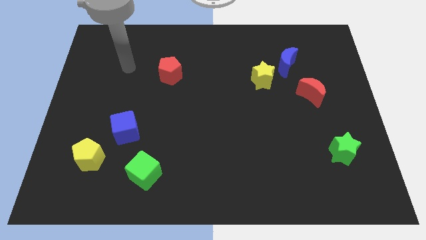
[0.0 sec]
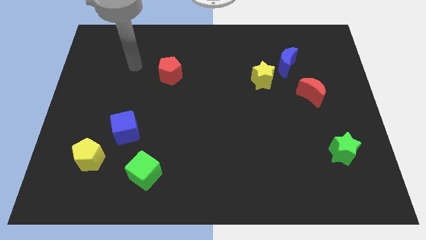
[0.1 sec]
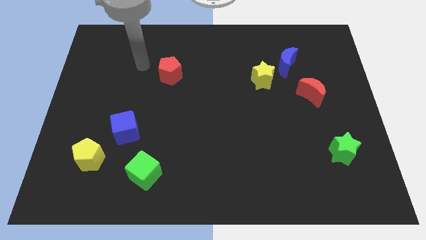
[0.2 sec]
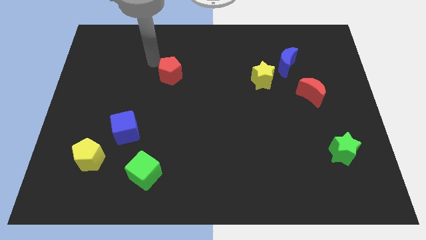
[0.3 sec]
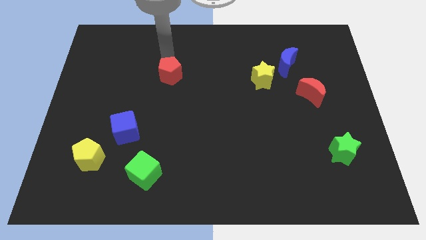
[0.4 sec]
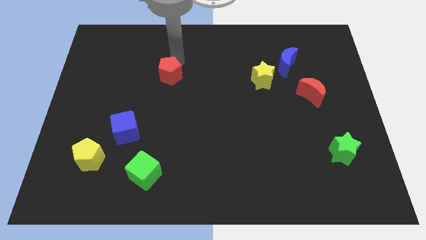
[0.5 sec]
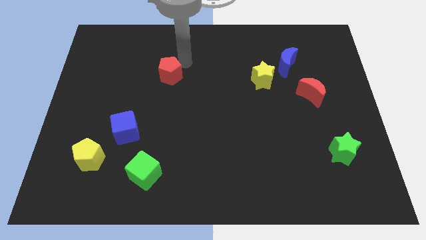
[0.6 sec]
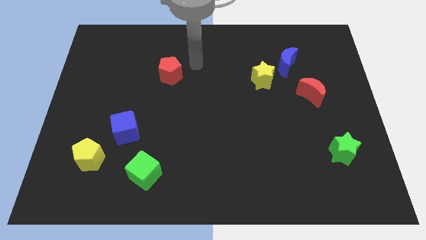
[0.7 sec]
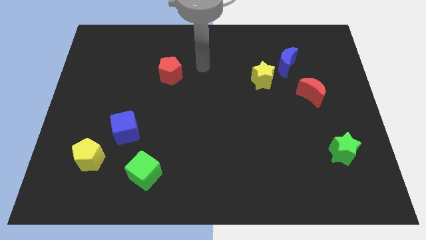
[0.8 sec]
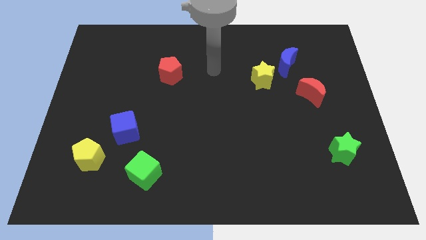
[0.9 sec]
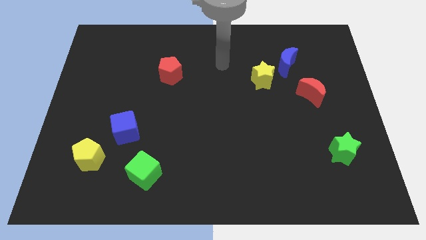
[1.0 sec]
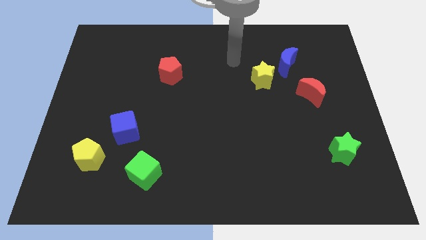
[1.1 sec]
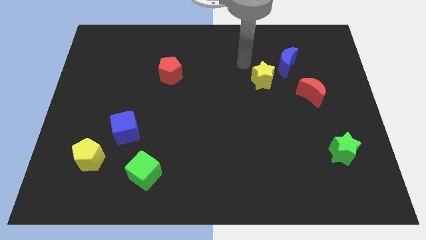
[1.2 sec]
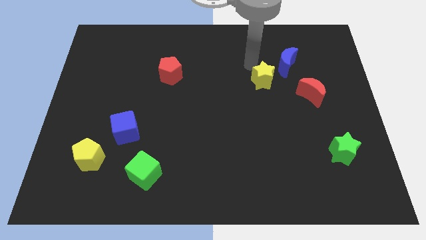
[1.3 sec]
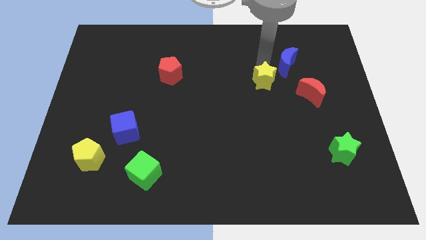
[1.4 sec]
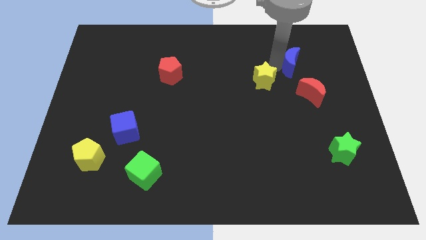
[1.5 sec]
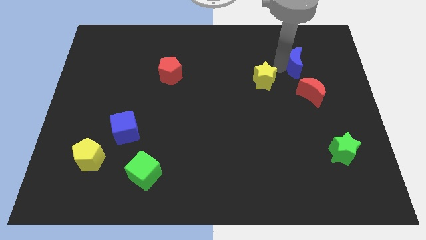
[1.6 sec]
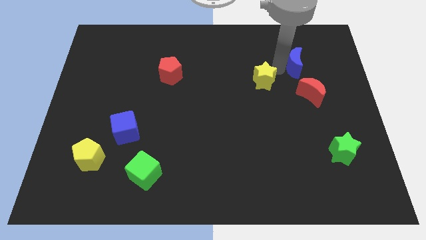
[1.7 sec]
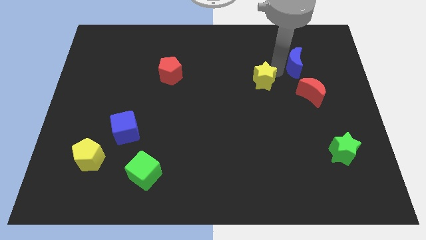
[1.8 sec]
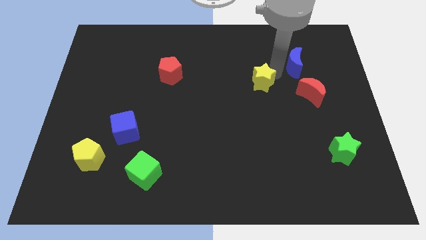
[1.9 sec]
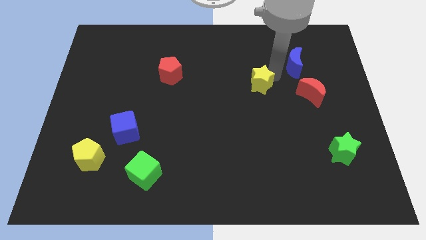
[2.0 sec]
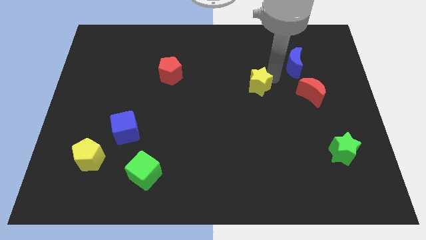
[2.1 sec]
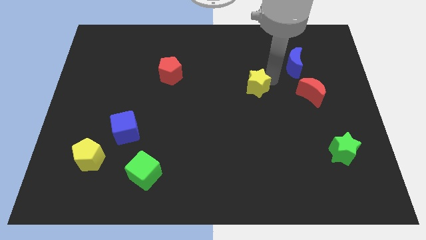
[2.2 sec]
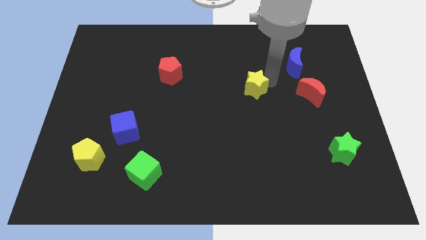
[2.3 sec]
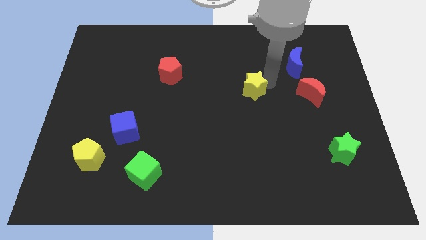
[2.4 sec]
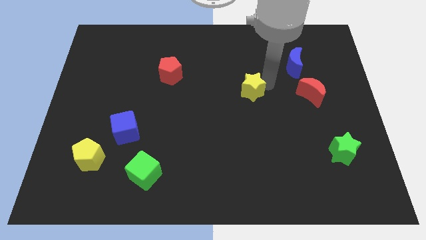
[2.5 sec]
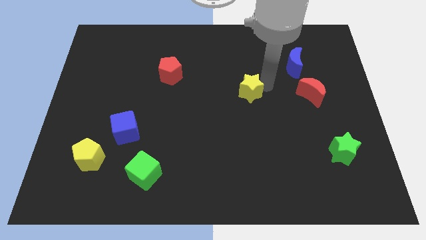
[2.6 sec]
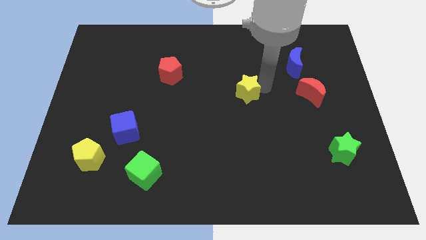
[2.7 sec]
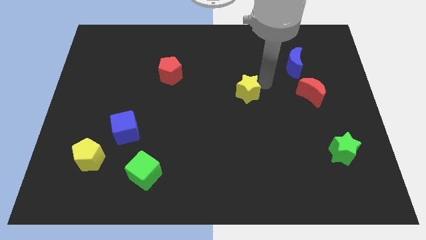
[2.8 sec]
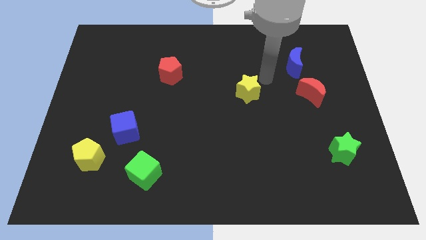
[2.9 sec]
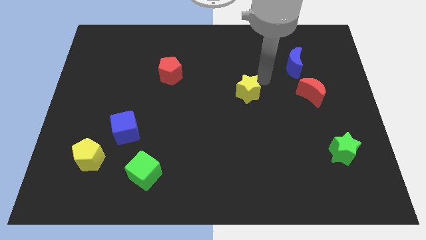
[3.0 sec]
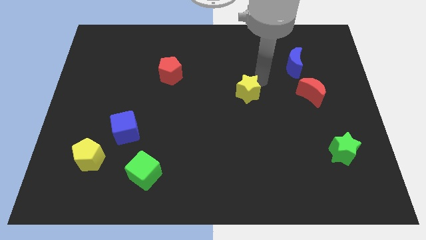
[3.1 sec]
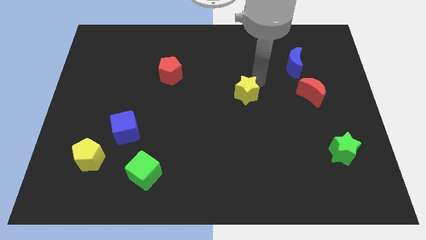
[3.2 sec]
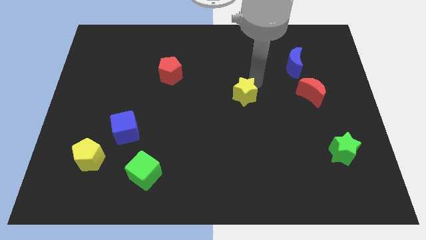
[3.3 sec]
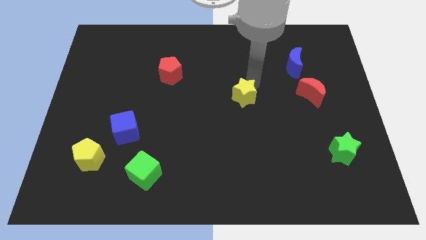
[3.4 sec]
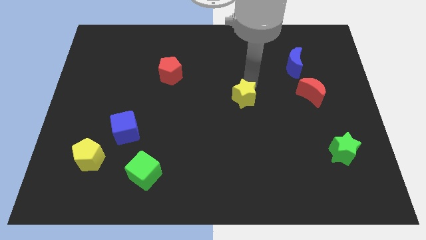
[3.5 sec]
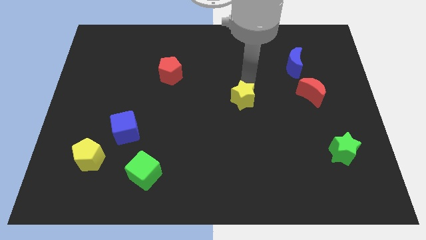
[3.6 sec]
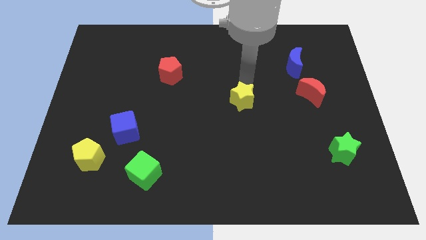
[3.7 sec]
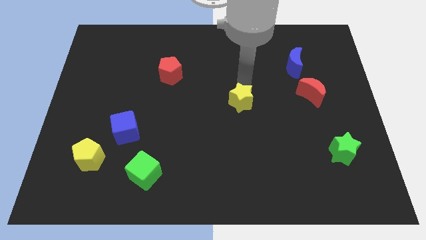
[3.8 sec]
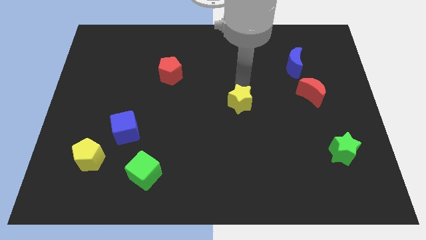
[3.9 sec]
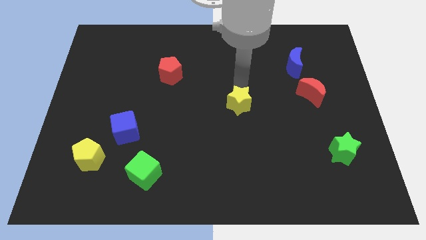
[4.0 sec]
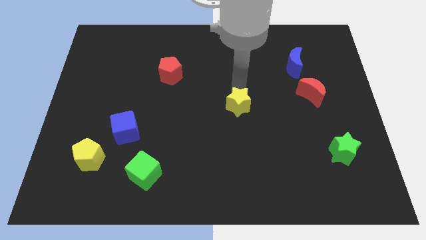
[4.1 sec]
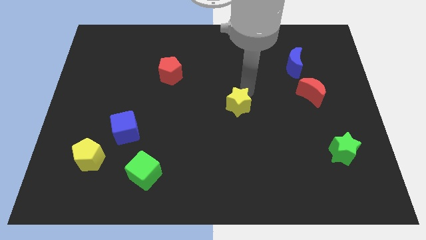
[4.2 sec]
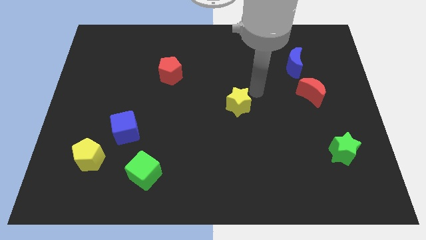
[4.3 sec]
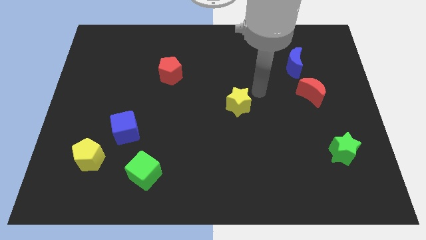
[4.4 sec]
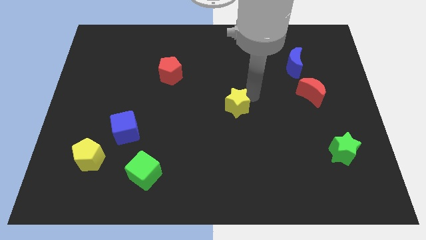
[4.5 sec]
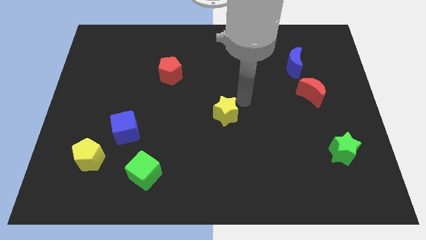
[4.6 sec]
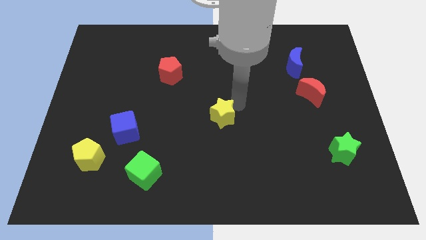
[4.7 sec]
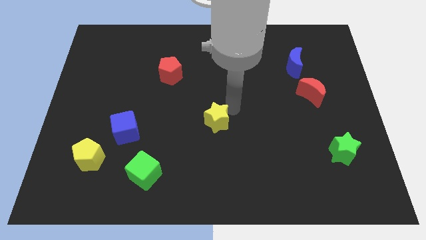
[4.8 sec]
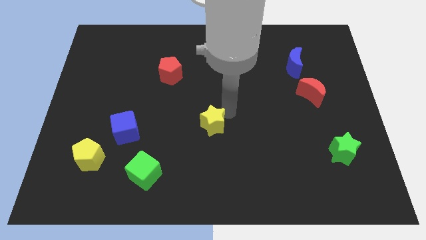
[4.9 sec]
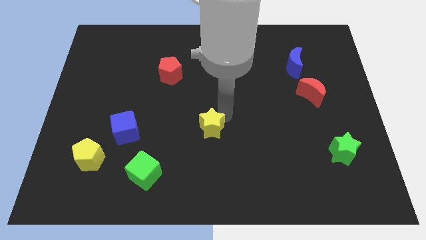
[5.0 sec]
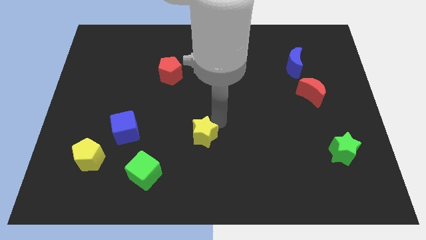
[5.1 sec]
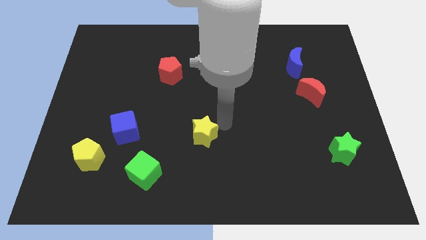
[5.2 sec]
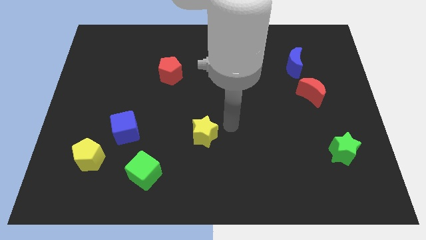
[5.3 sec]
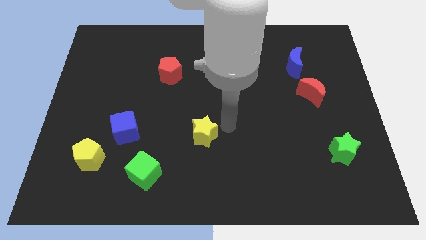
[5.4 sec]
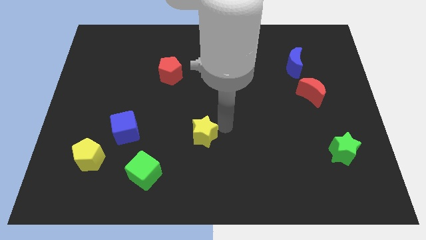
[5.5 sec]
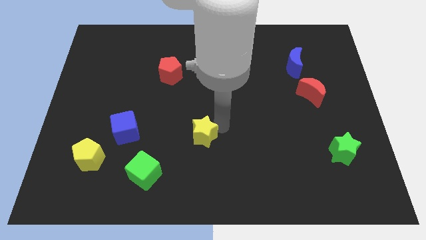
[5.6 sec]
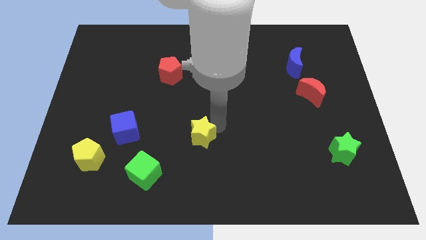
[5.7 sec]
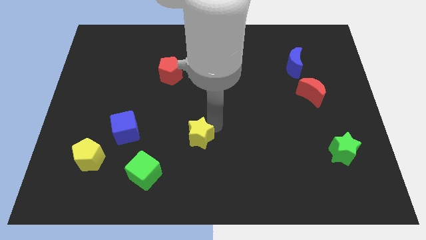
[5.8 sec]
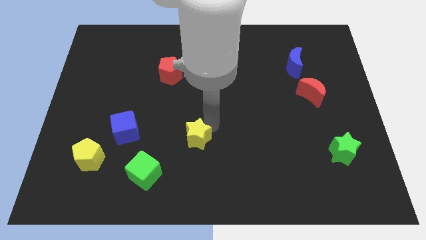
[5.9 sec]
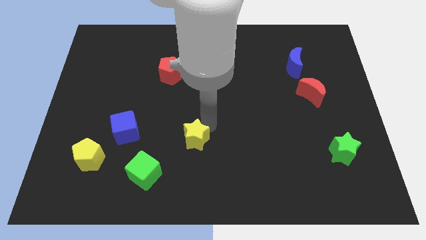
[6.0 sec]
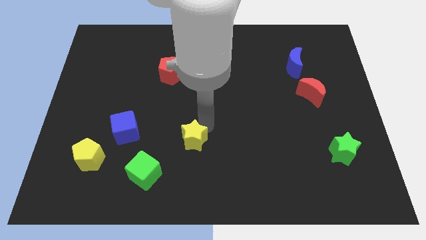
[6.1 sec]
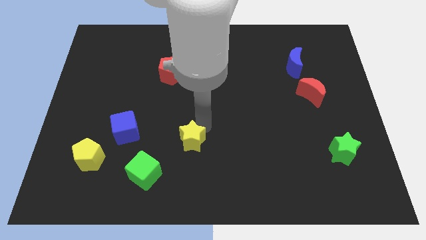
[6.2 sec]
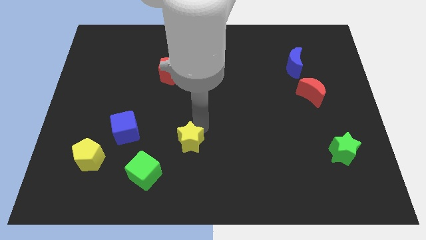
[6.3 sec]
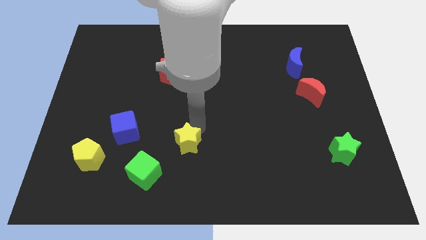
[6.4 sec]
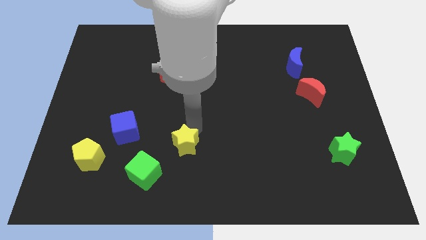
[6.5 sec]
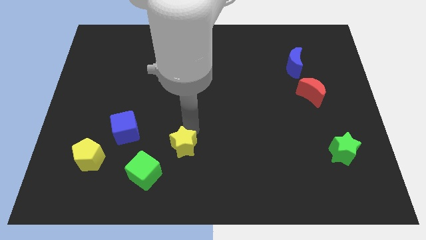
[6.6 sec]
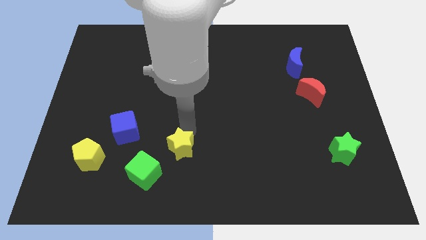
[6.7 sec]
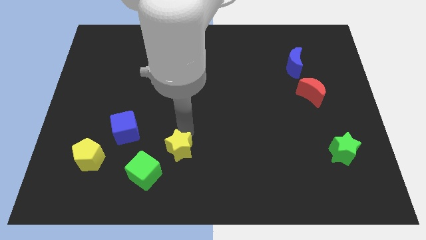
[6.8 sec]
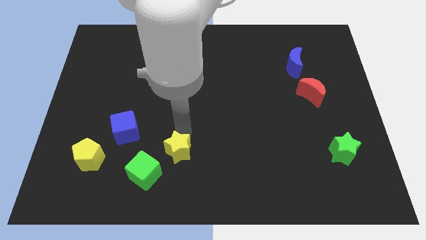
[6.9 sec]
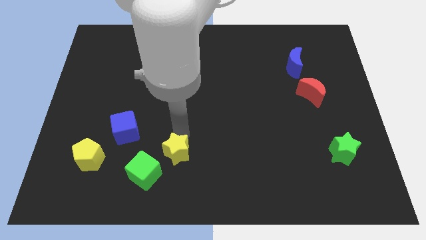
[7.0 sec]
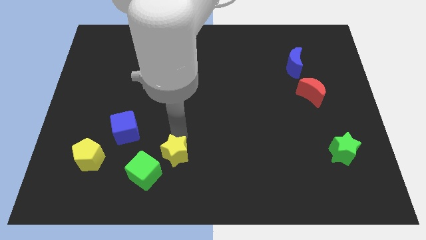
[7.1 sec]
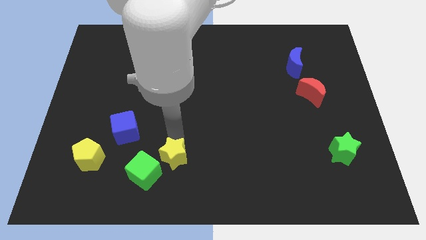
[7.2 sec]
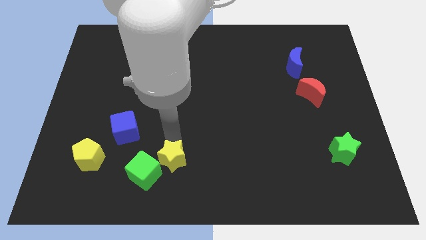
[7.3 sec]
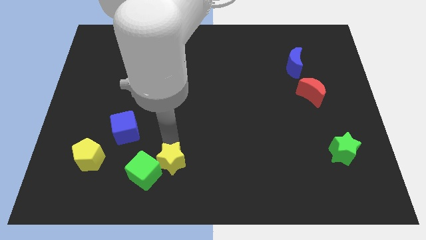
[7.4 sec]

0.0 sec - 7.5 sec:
move the yellow star towards the green cube
